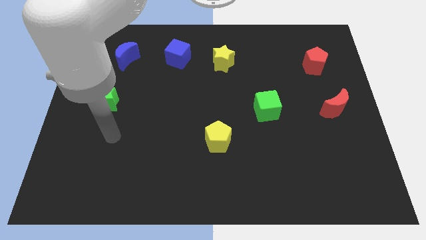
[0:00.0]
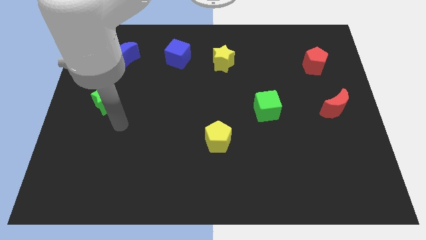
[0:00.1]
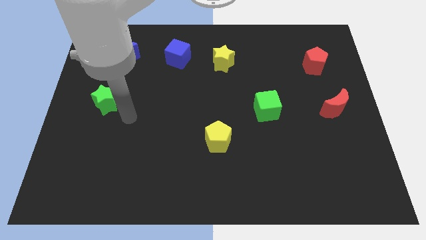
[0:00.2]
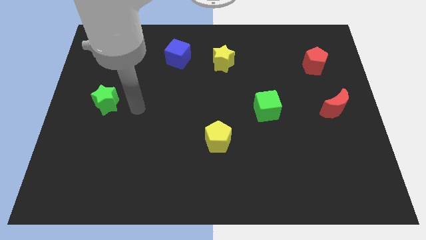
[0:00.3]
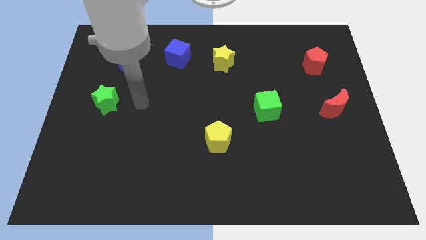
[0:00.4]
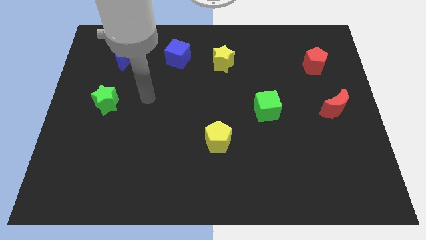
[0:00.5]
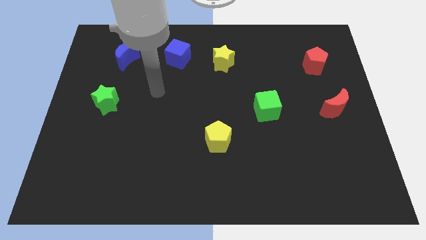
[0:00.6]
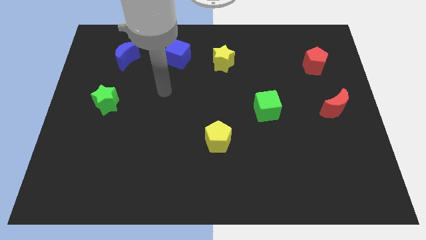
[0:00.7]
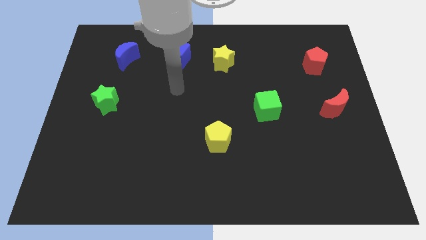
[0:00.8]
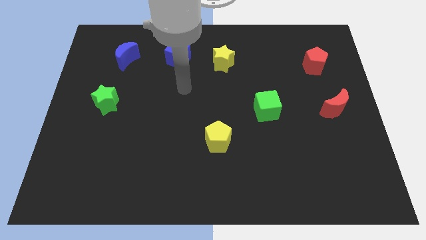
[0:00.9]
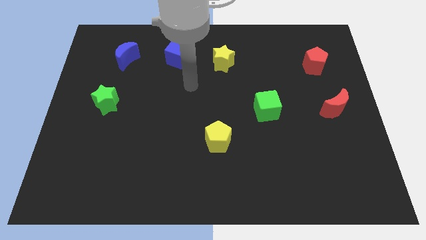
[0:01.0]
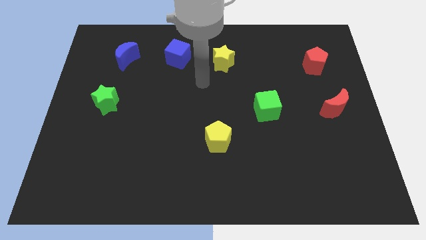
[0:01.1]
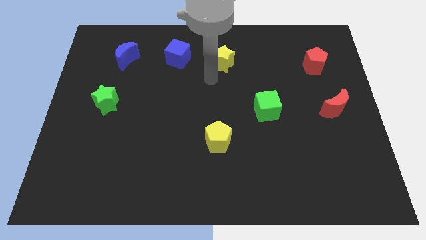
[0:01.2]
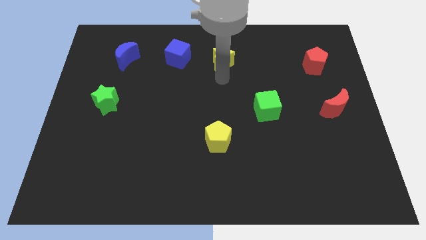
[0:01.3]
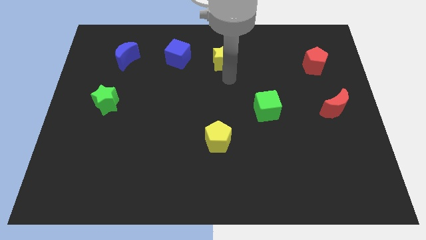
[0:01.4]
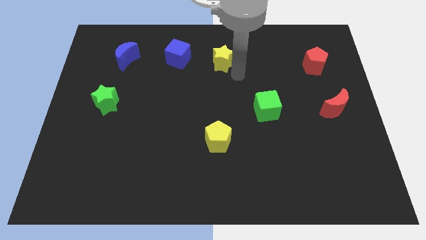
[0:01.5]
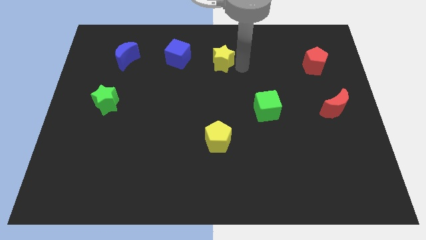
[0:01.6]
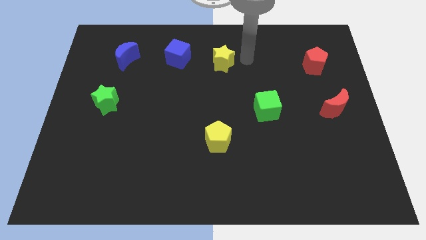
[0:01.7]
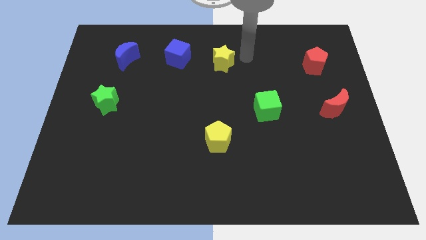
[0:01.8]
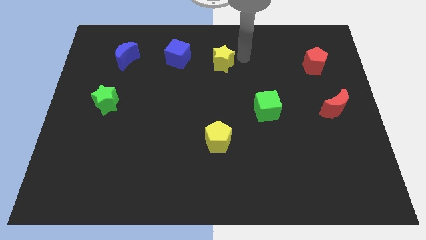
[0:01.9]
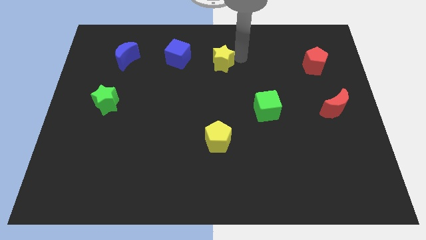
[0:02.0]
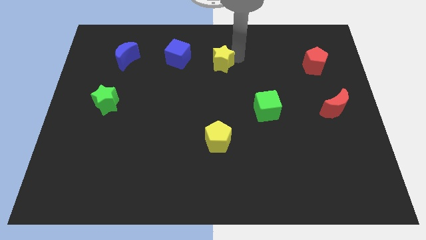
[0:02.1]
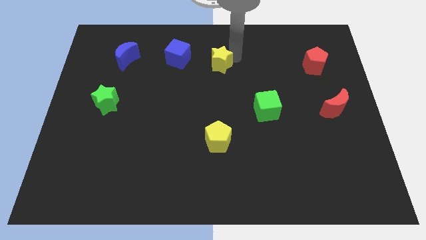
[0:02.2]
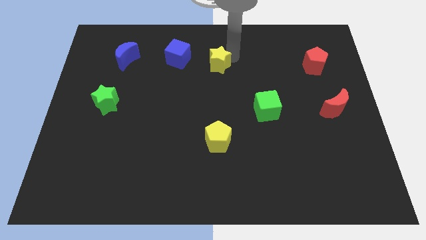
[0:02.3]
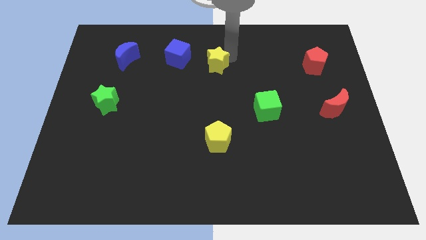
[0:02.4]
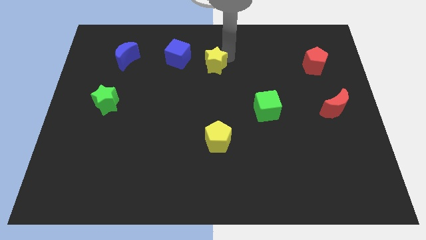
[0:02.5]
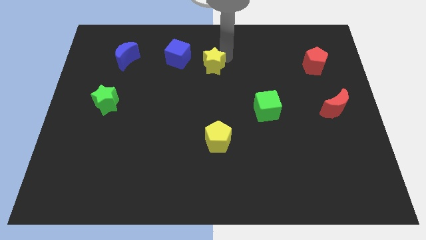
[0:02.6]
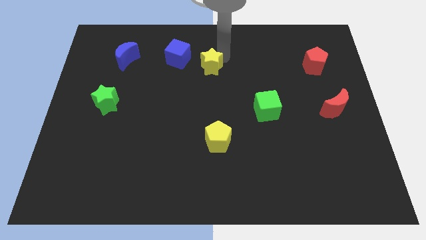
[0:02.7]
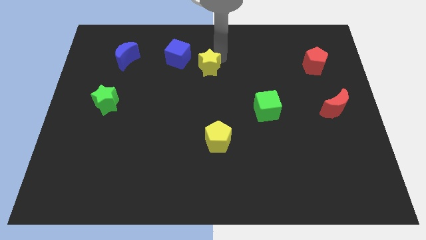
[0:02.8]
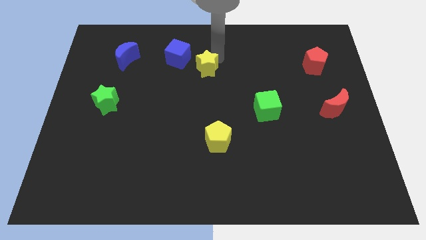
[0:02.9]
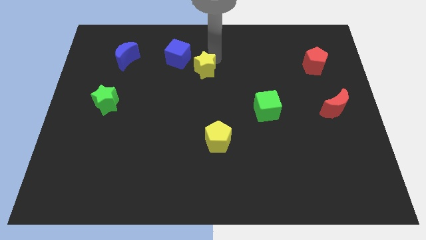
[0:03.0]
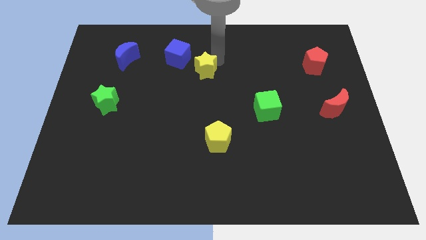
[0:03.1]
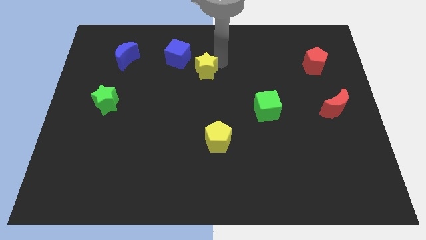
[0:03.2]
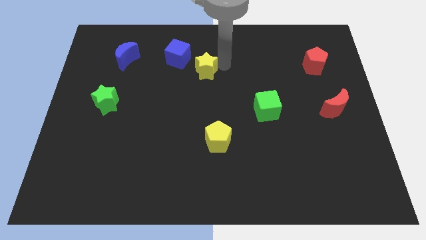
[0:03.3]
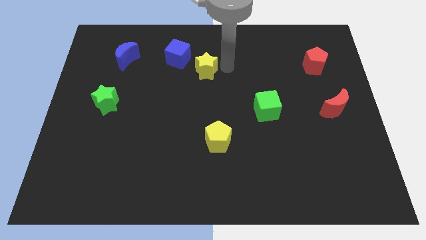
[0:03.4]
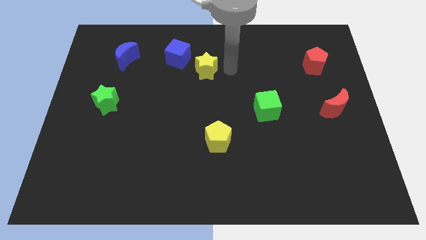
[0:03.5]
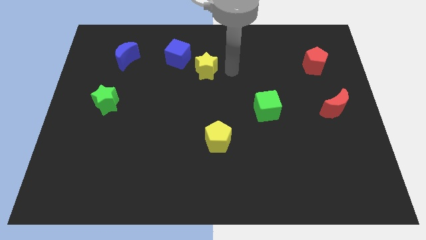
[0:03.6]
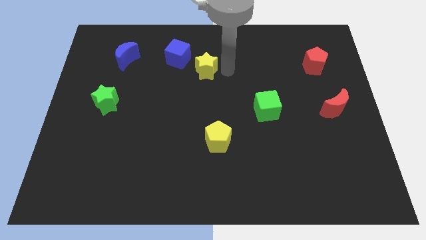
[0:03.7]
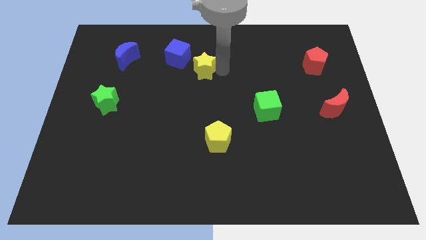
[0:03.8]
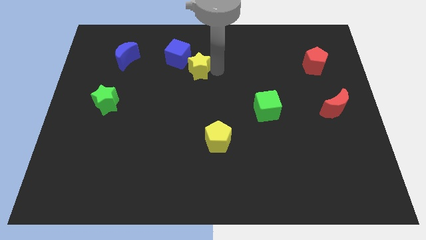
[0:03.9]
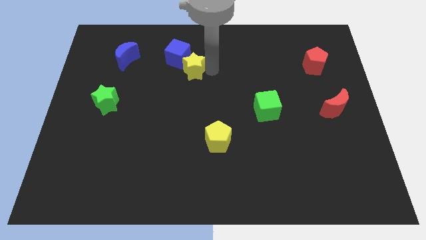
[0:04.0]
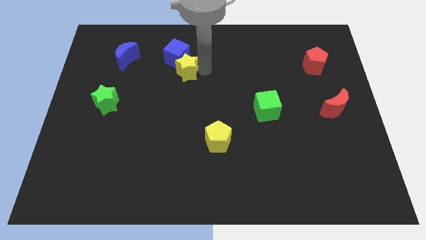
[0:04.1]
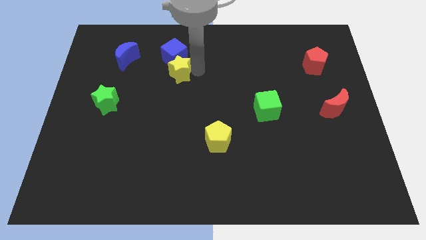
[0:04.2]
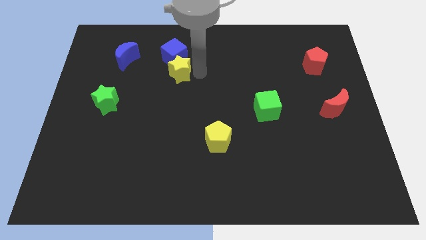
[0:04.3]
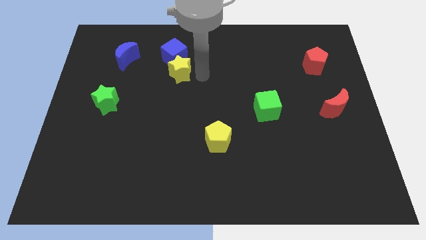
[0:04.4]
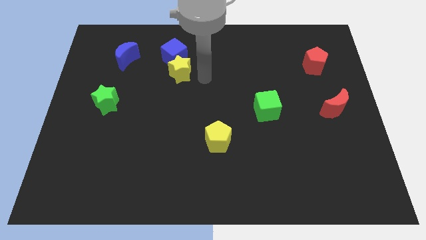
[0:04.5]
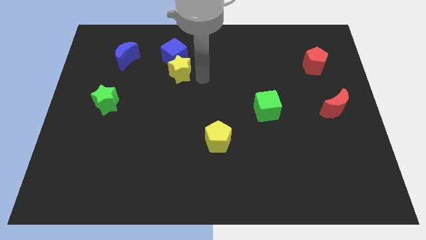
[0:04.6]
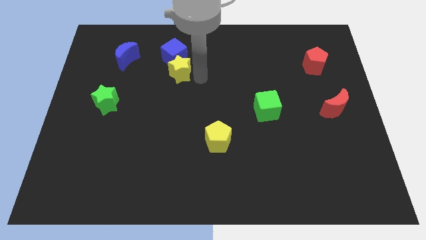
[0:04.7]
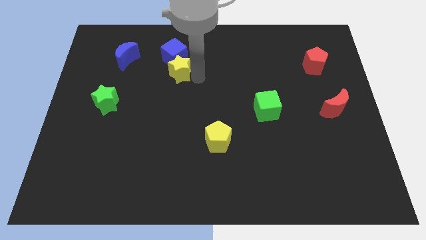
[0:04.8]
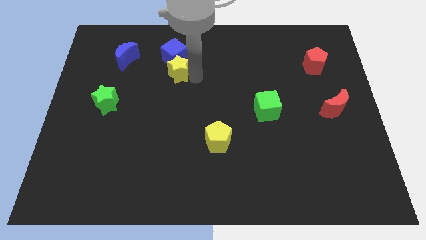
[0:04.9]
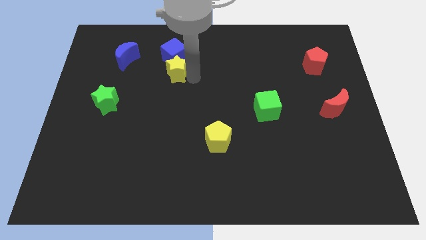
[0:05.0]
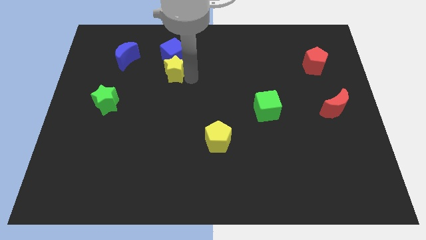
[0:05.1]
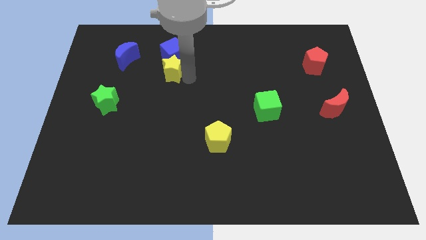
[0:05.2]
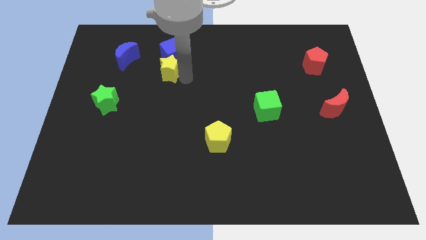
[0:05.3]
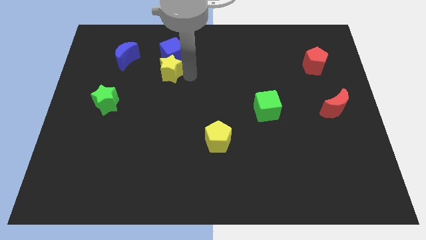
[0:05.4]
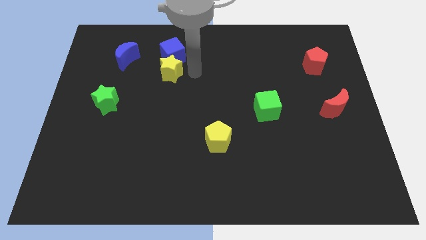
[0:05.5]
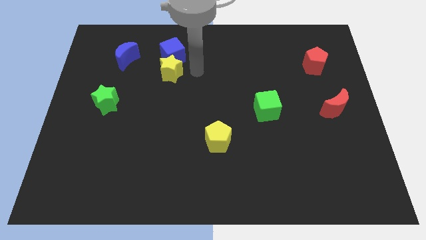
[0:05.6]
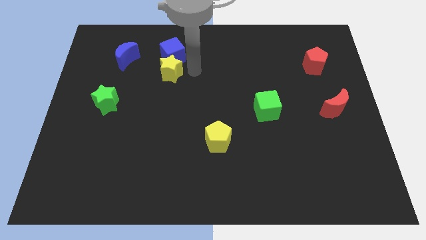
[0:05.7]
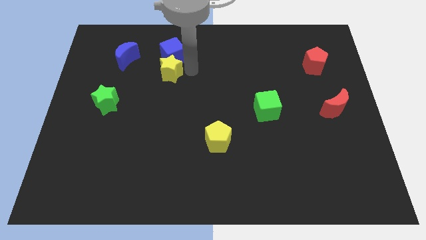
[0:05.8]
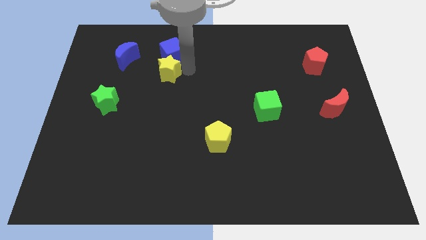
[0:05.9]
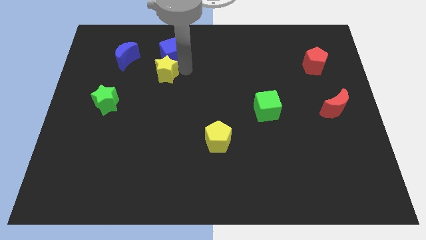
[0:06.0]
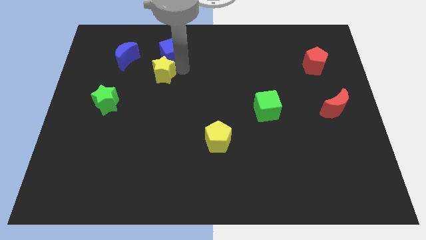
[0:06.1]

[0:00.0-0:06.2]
move the yellow star to the bottom right side of the blue moon
